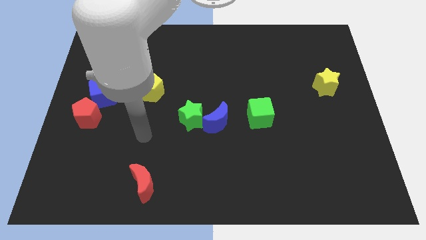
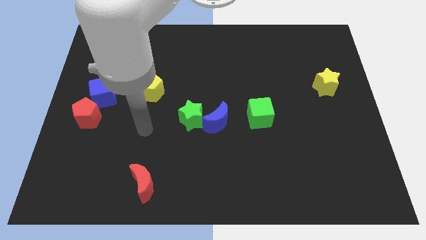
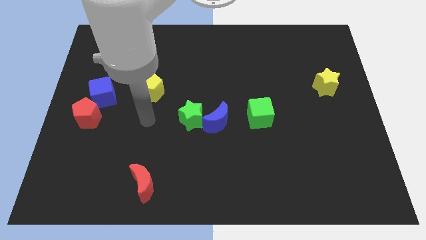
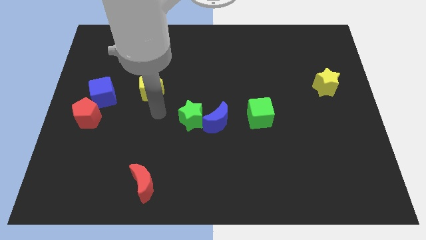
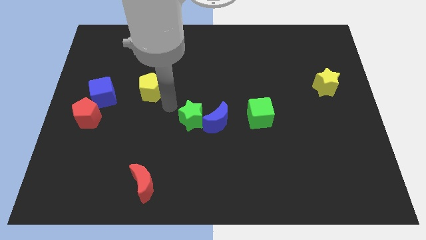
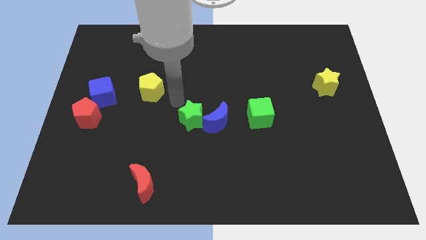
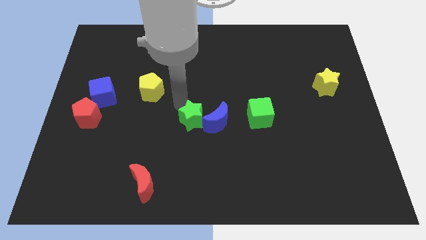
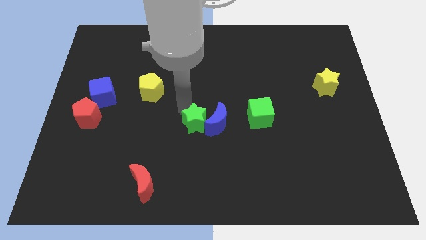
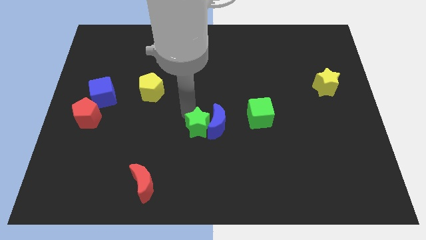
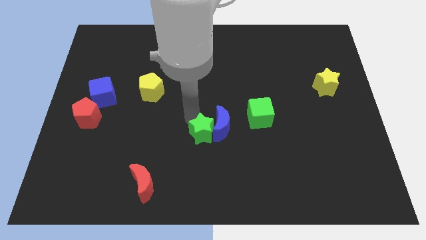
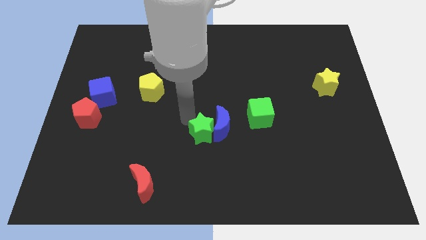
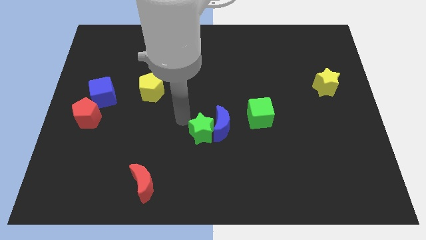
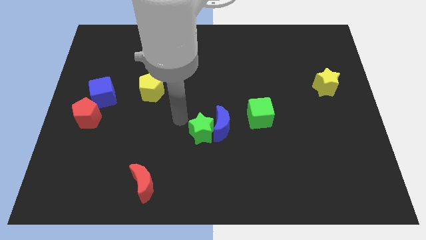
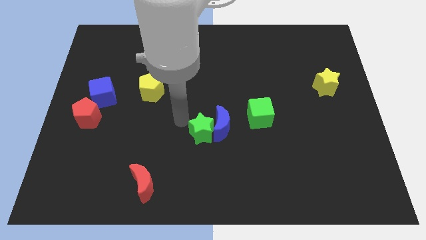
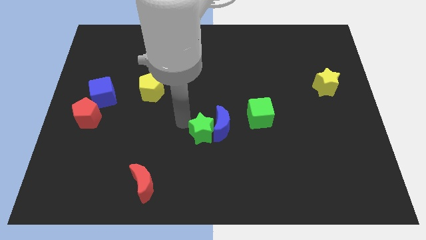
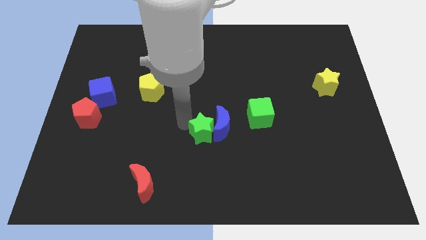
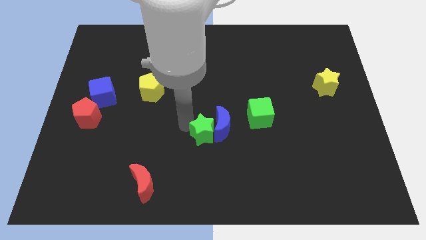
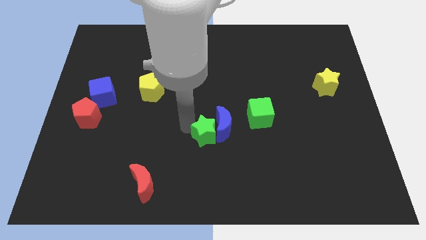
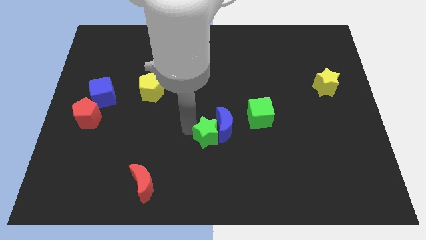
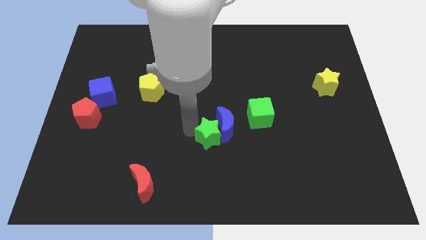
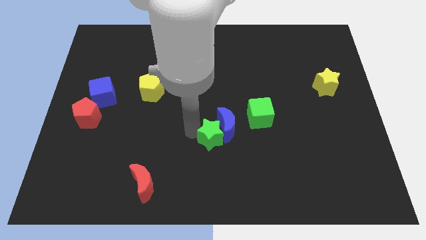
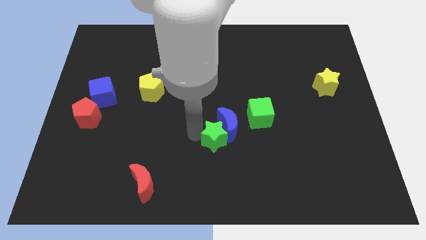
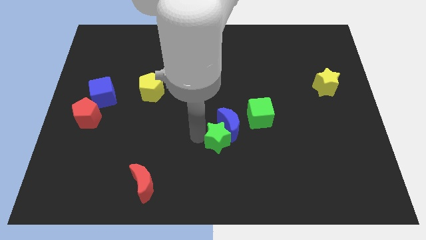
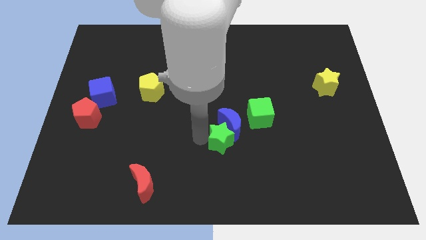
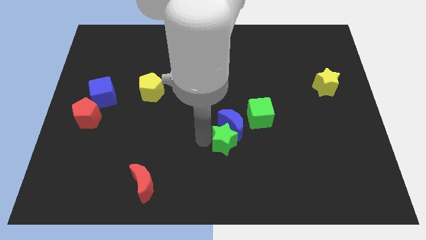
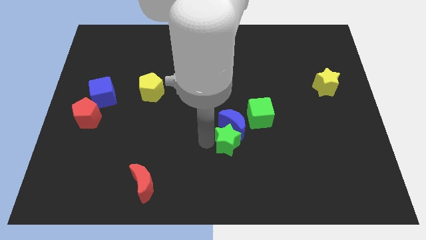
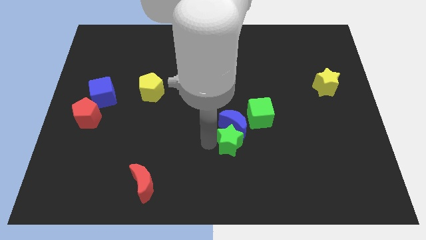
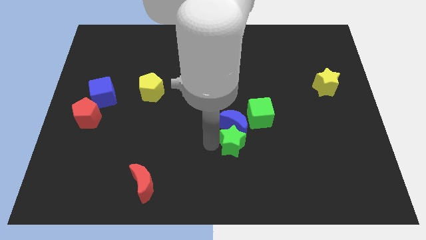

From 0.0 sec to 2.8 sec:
push the green star a bit right

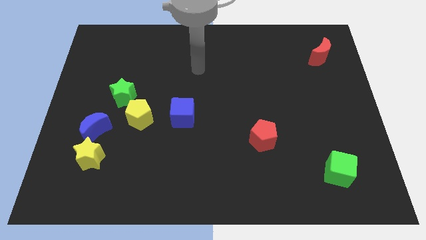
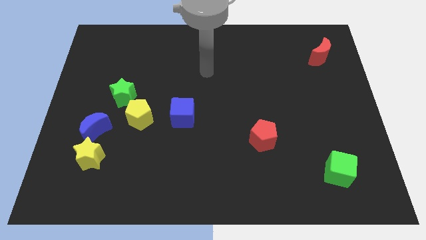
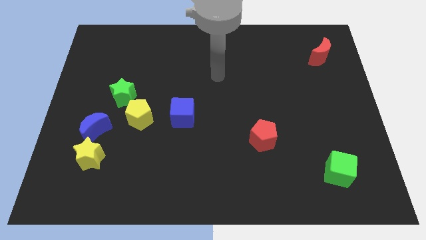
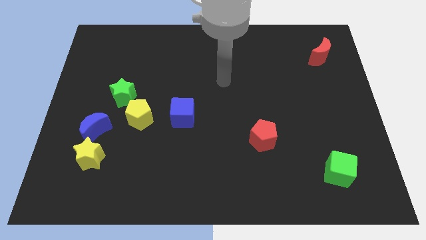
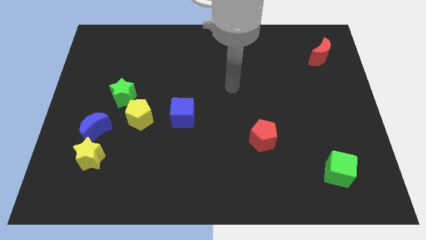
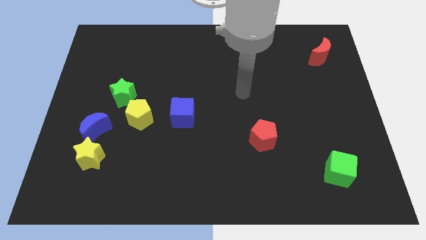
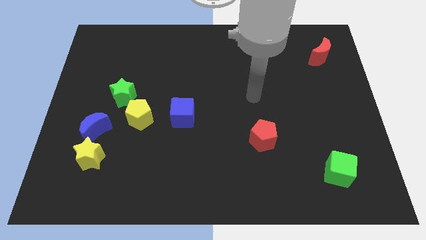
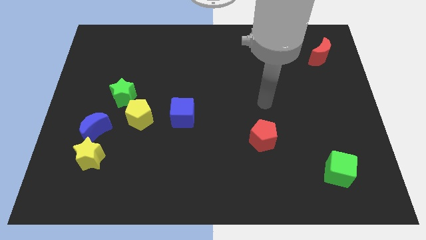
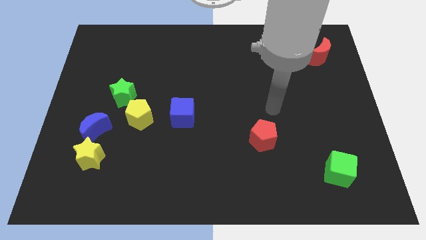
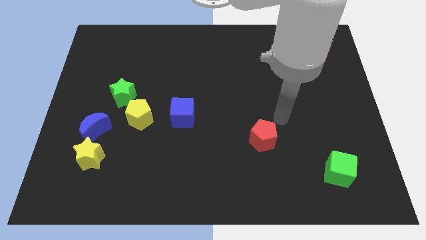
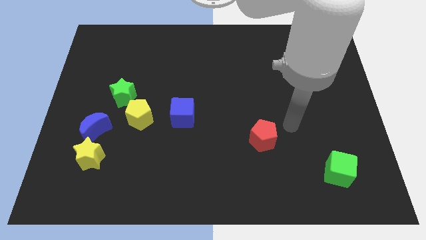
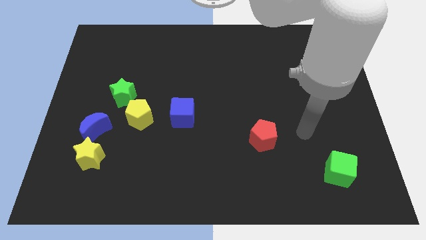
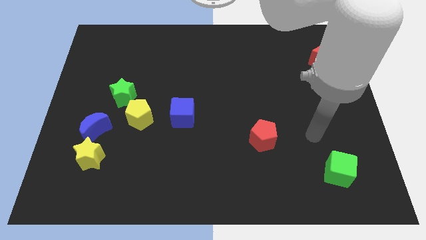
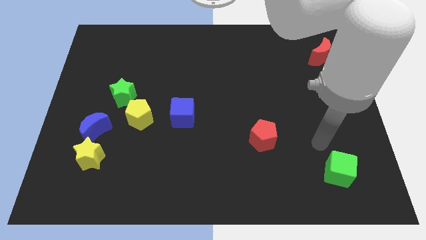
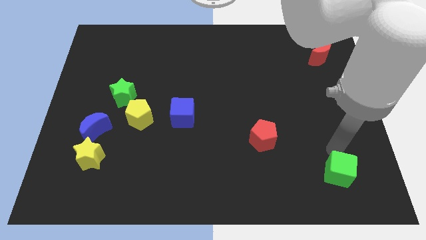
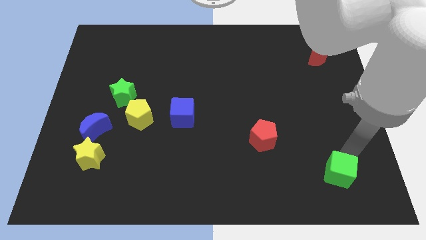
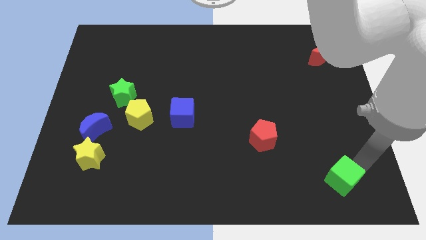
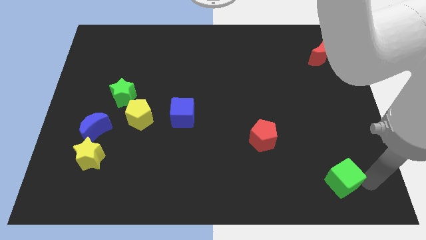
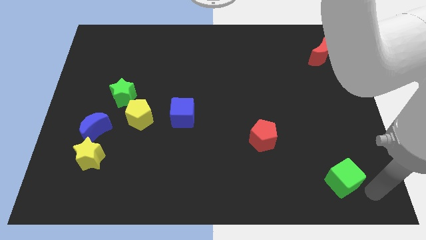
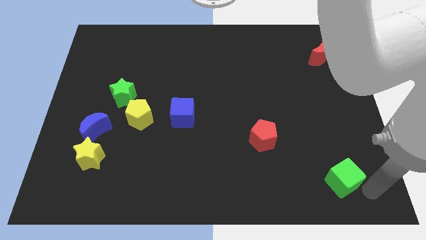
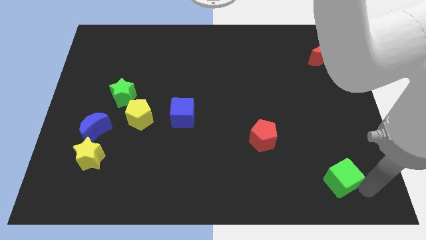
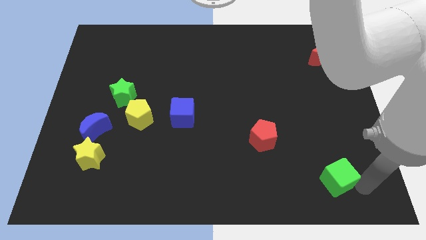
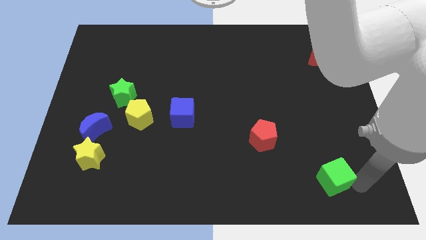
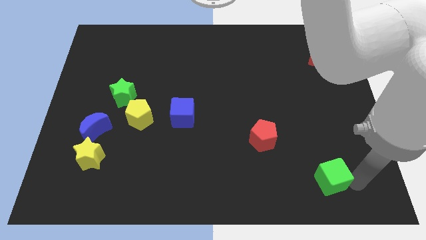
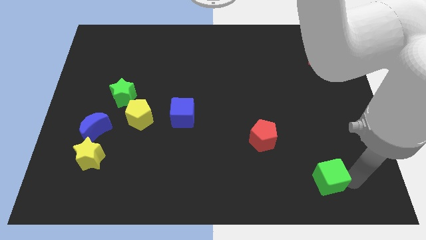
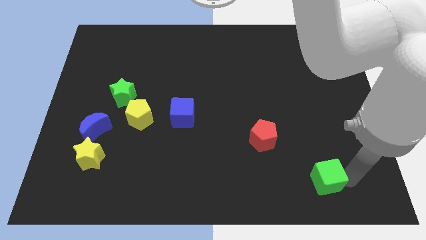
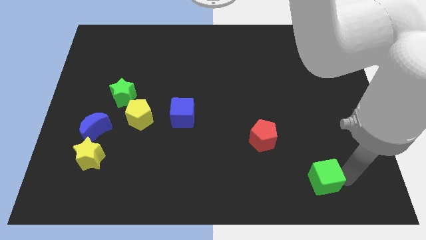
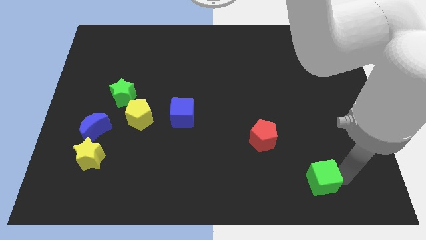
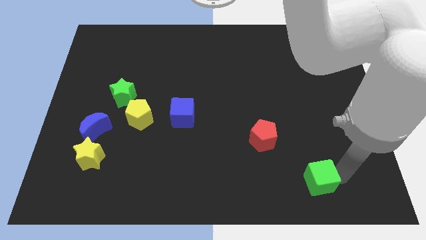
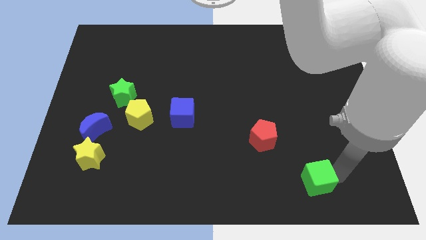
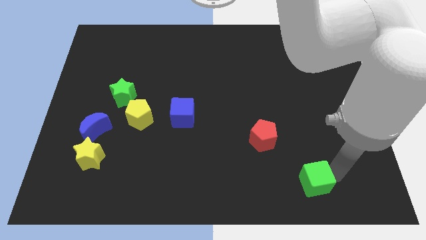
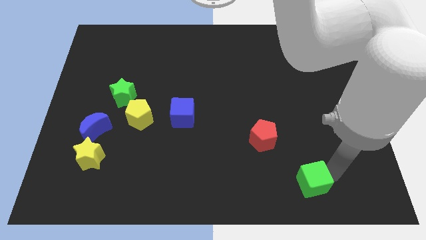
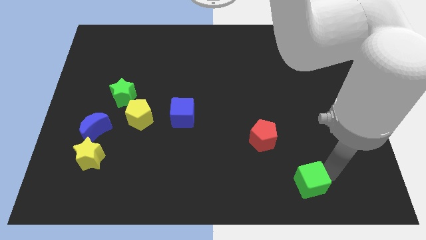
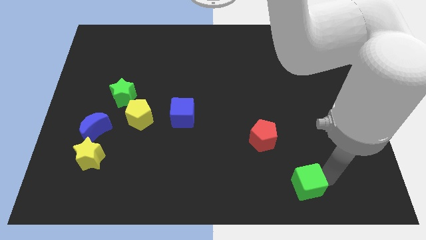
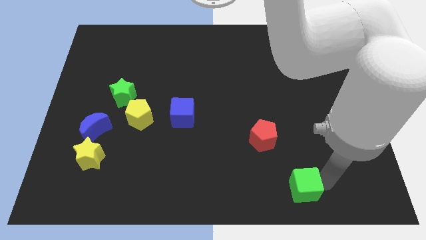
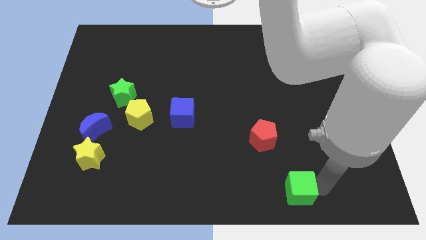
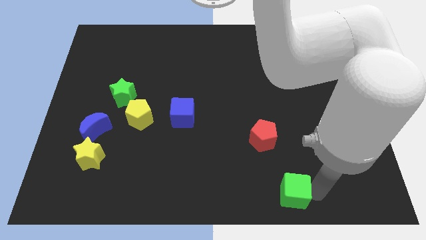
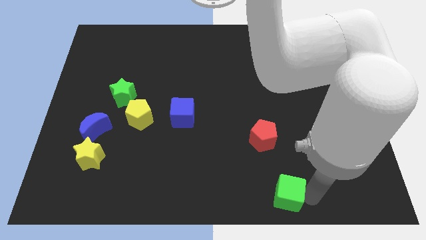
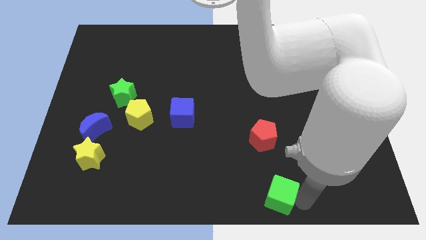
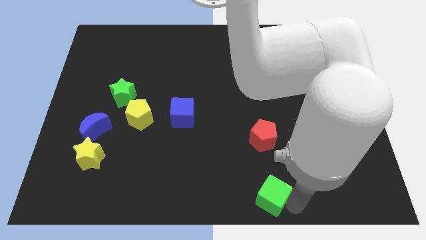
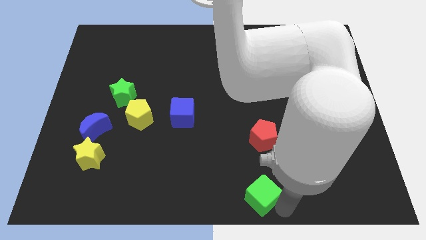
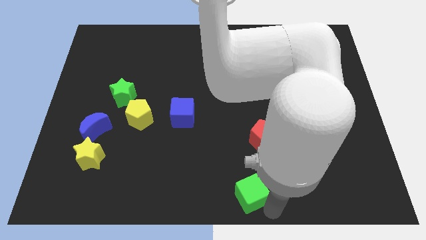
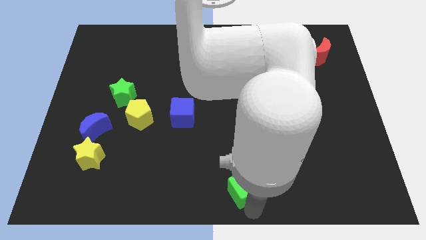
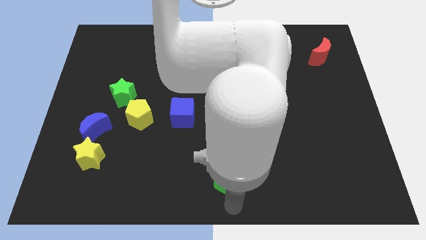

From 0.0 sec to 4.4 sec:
move the green cube left

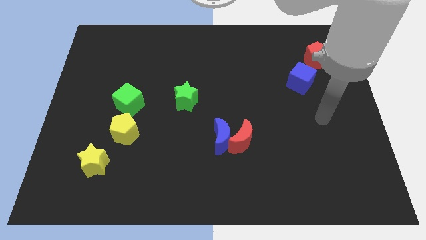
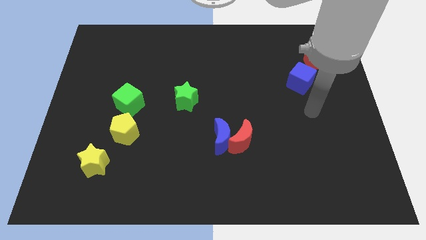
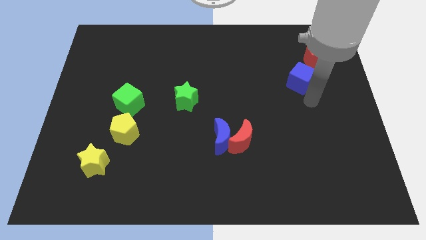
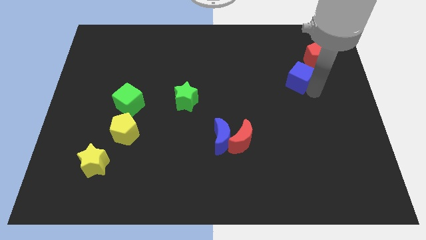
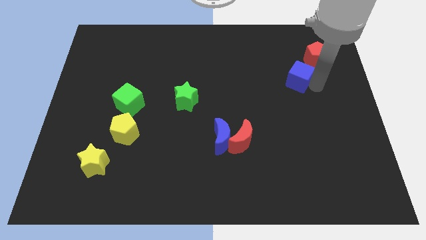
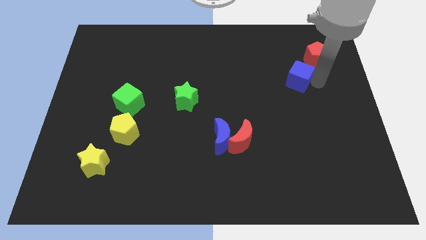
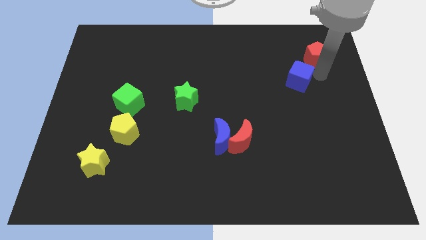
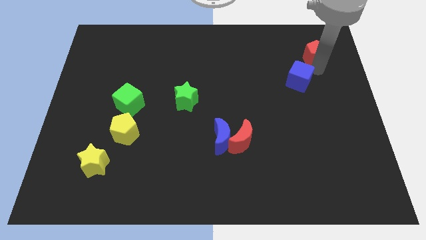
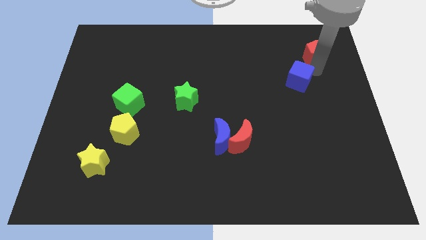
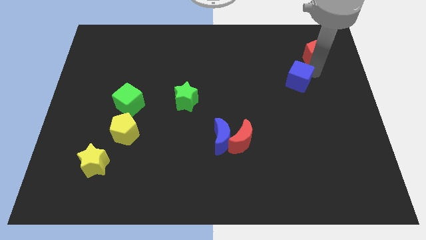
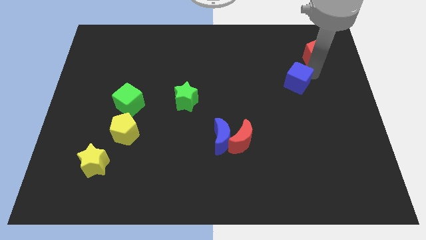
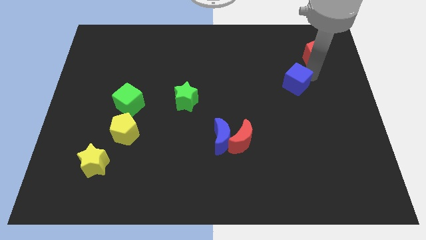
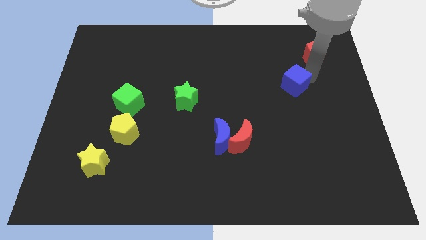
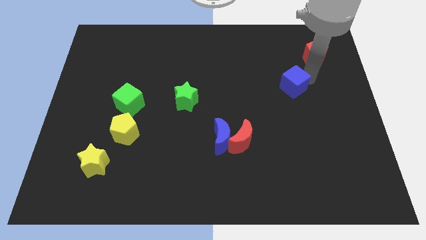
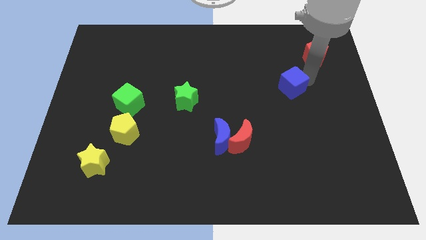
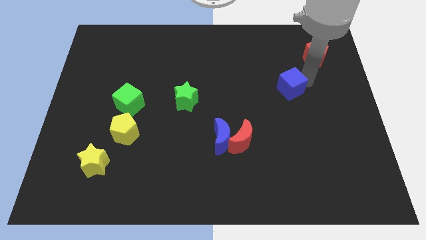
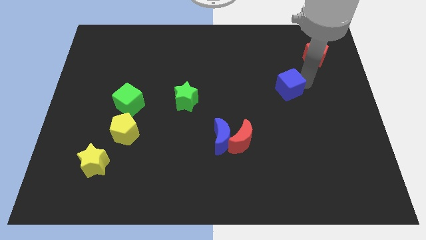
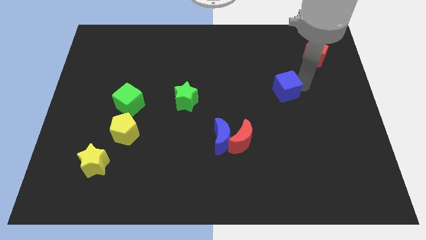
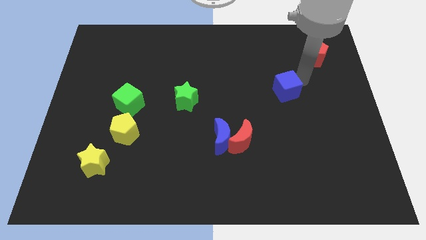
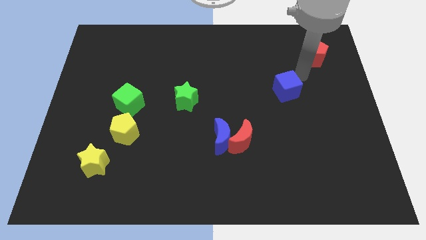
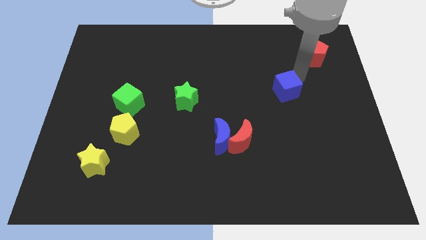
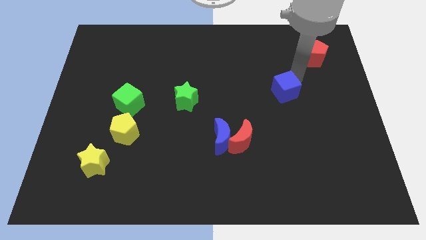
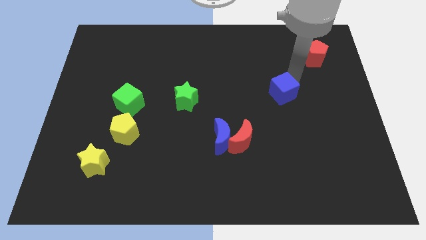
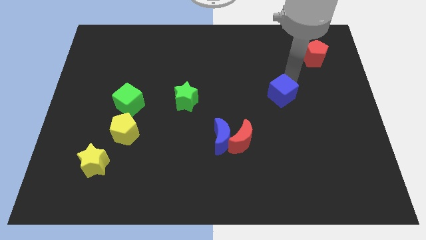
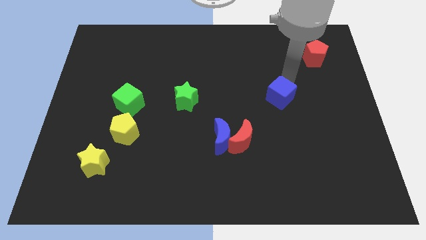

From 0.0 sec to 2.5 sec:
slightly move the blue cube down and to the left diagonally
